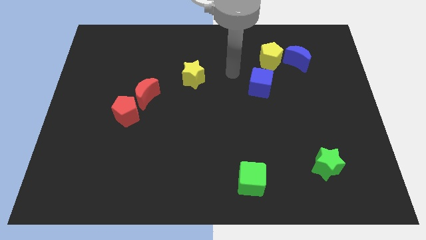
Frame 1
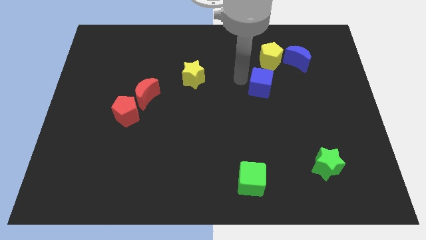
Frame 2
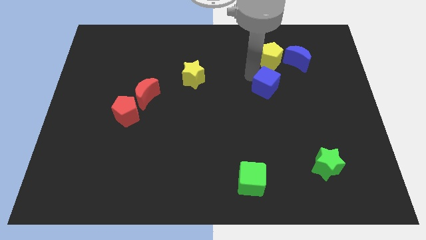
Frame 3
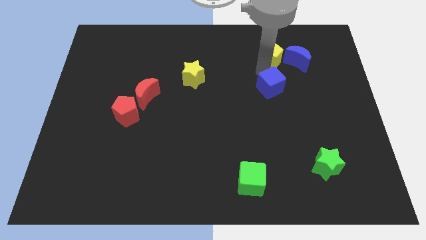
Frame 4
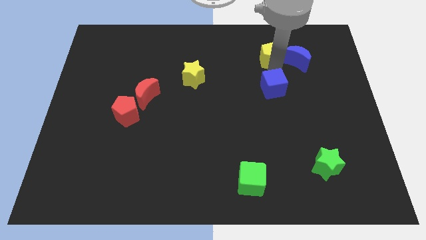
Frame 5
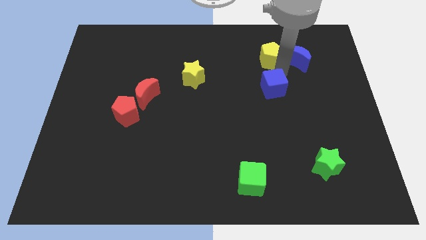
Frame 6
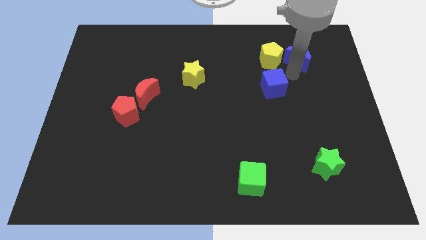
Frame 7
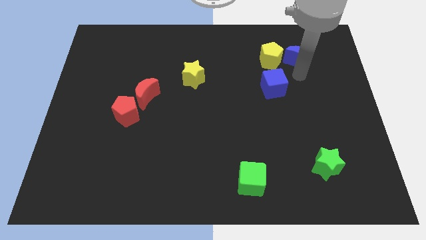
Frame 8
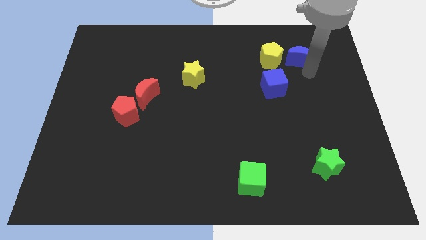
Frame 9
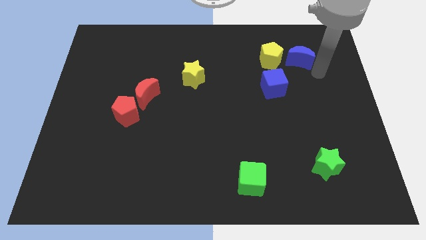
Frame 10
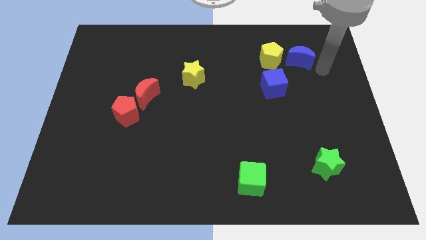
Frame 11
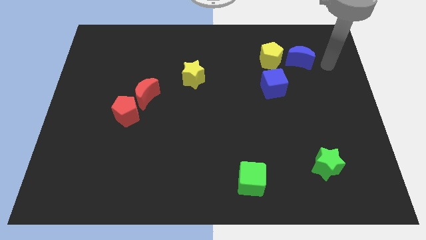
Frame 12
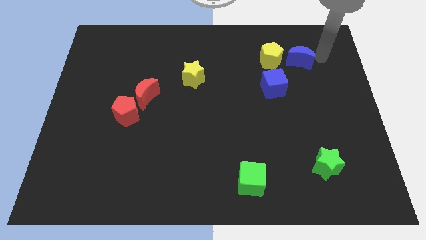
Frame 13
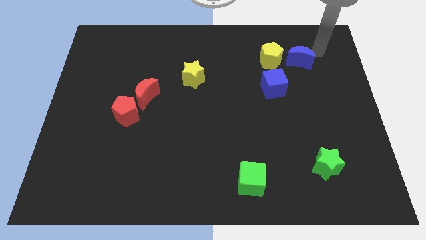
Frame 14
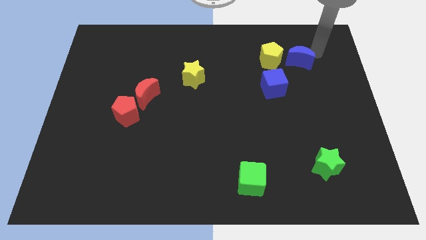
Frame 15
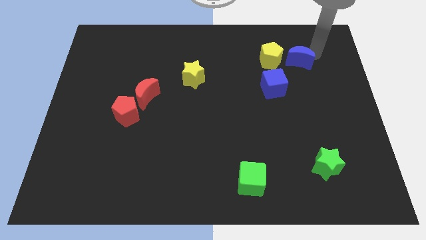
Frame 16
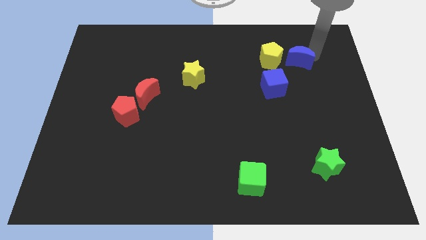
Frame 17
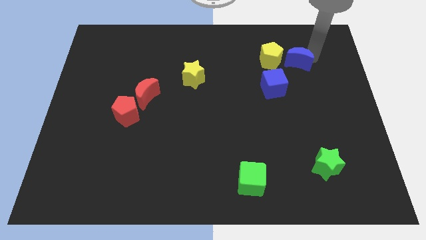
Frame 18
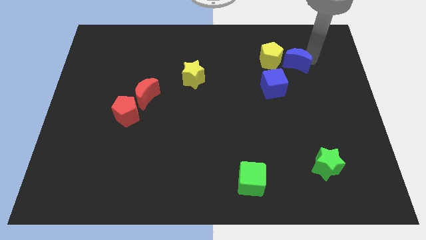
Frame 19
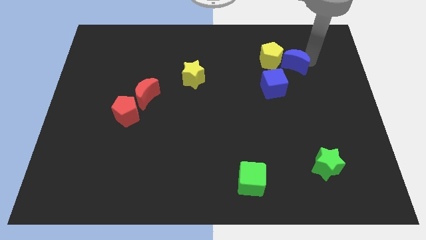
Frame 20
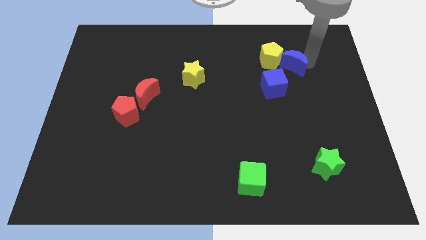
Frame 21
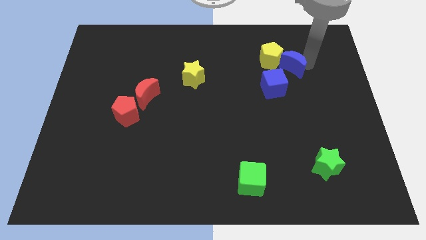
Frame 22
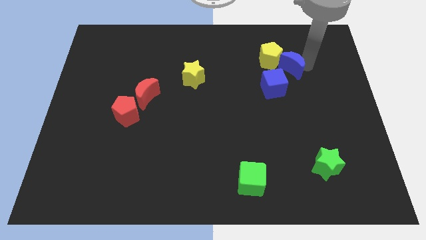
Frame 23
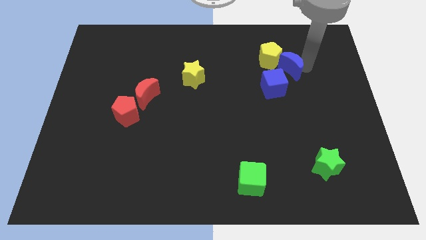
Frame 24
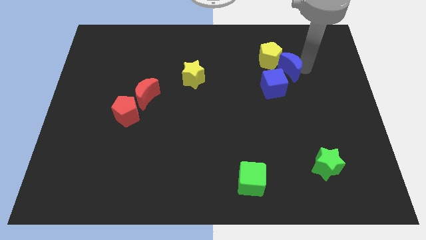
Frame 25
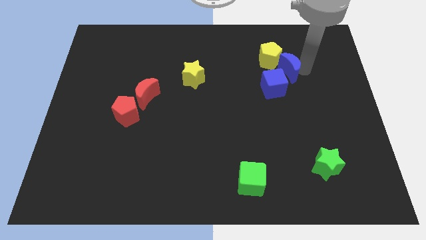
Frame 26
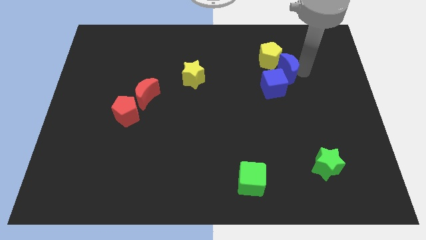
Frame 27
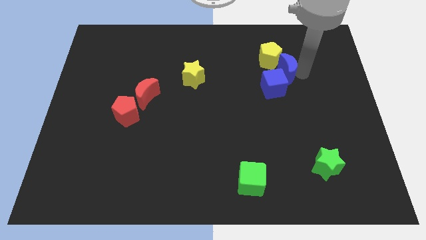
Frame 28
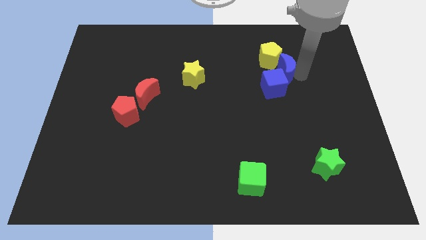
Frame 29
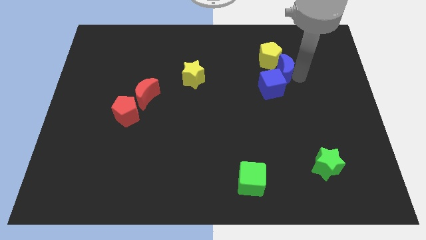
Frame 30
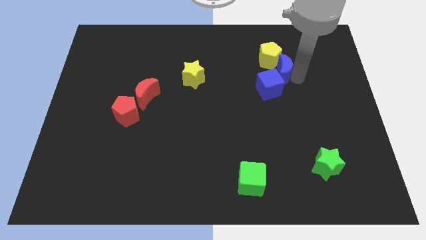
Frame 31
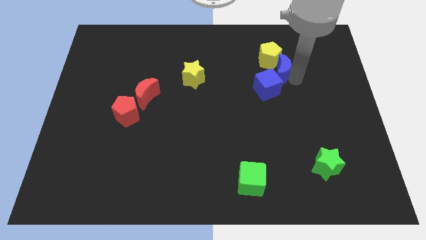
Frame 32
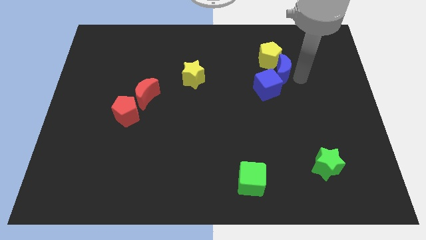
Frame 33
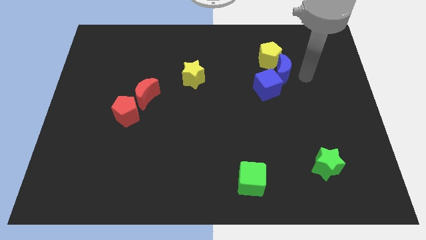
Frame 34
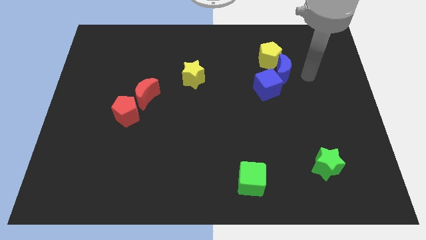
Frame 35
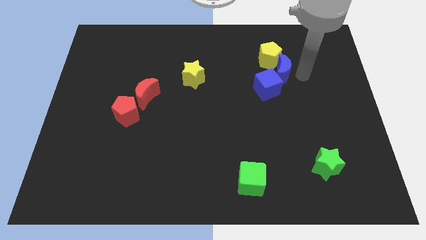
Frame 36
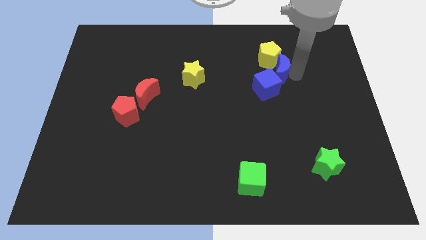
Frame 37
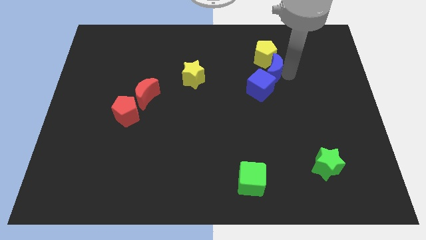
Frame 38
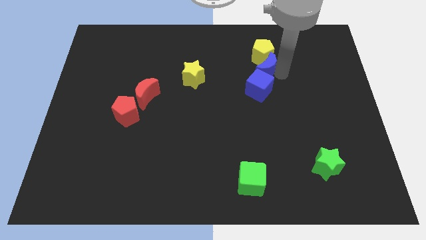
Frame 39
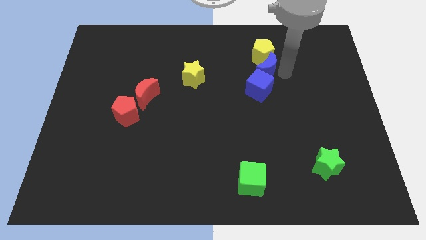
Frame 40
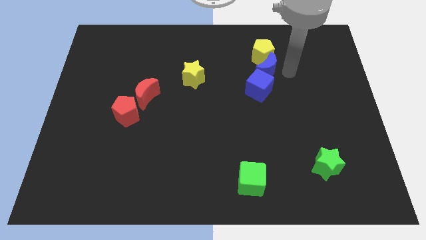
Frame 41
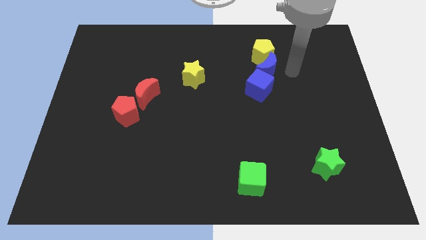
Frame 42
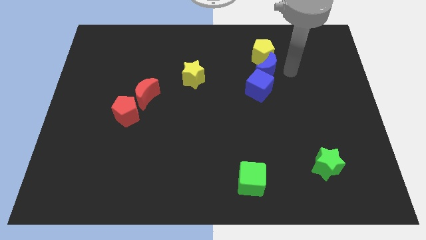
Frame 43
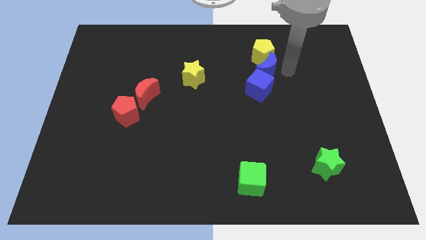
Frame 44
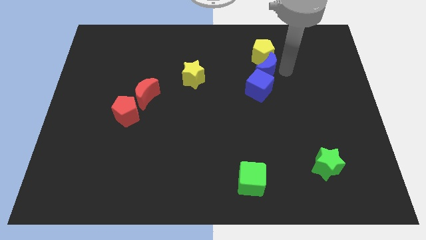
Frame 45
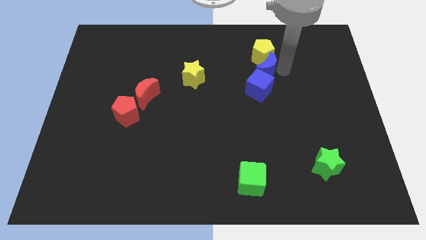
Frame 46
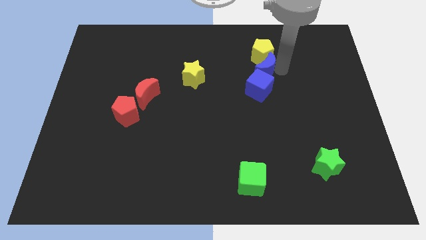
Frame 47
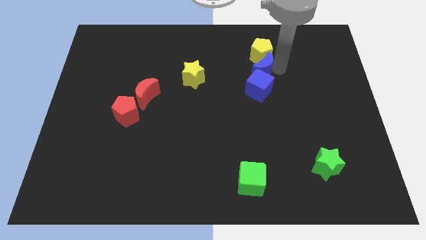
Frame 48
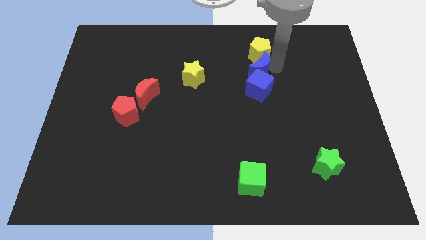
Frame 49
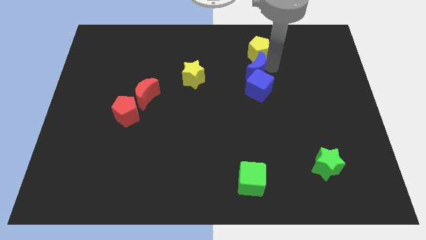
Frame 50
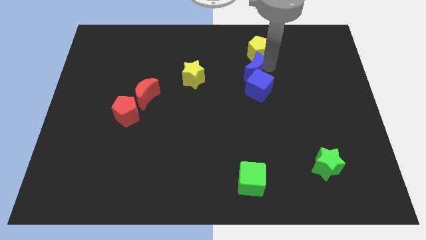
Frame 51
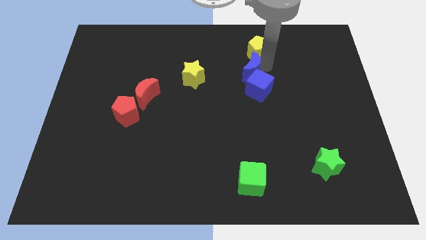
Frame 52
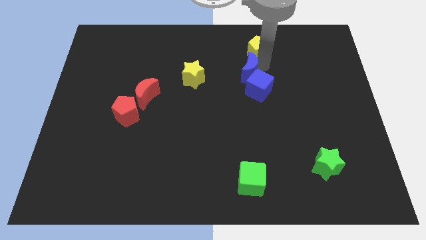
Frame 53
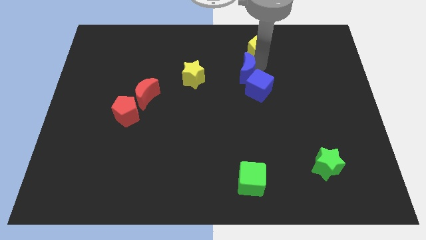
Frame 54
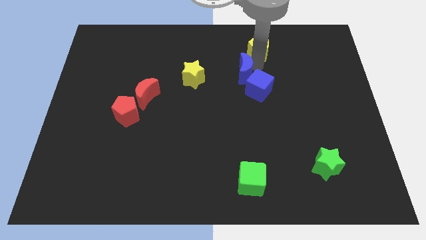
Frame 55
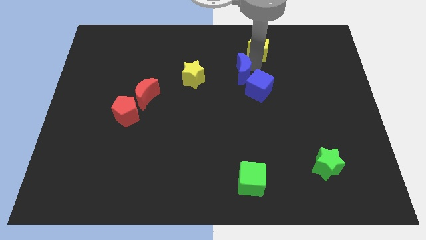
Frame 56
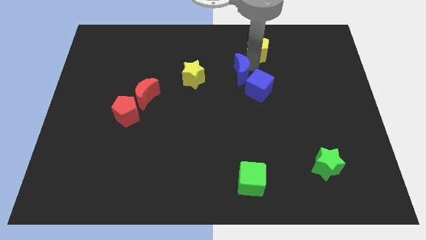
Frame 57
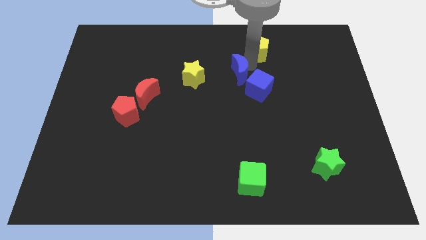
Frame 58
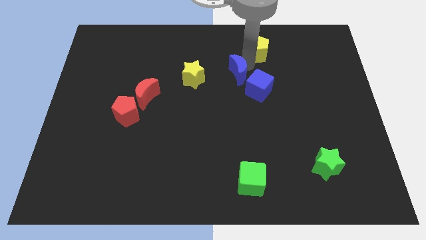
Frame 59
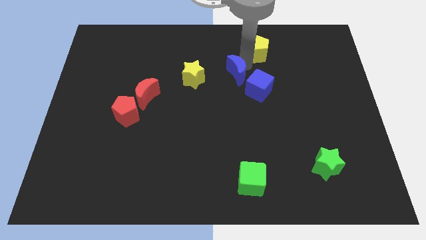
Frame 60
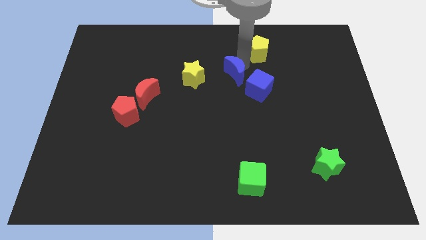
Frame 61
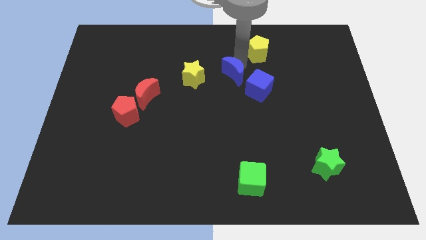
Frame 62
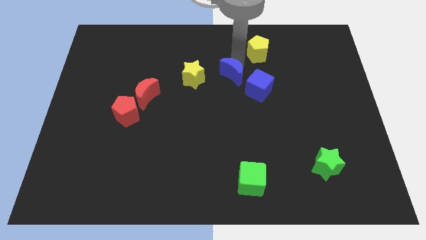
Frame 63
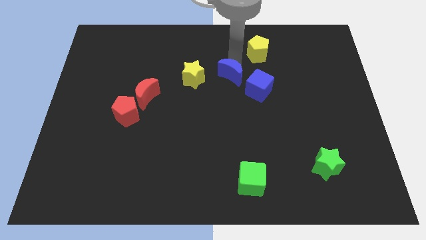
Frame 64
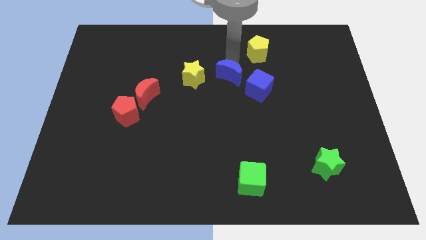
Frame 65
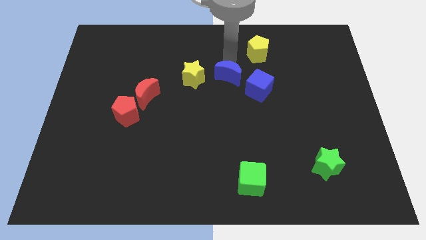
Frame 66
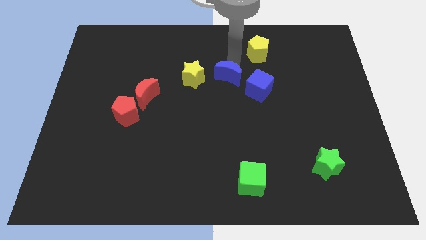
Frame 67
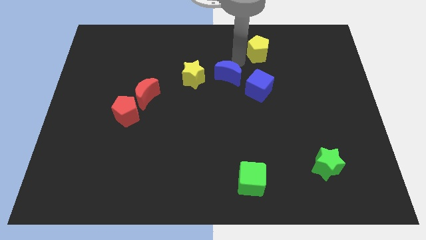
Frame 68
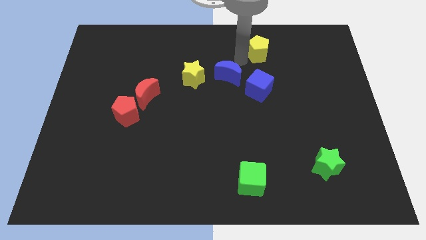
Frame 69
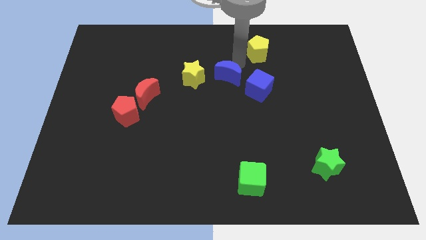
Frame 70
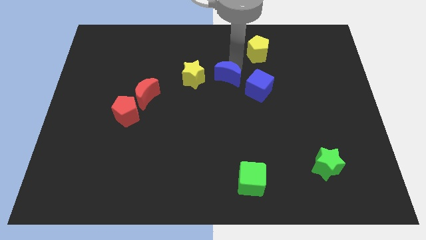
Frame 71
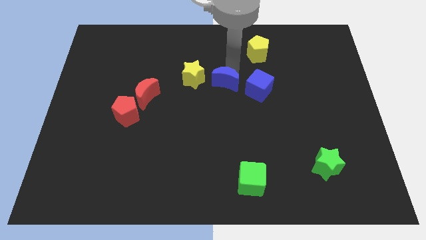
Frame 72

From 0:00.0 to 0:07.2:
put the blue moon to the bottom right of the yellow star
